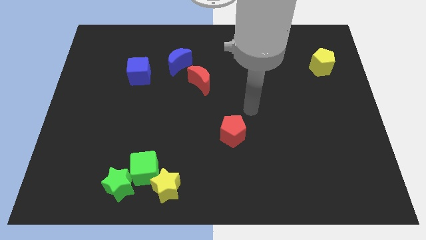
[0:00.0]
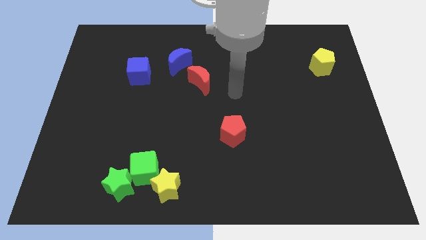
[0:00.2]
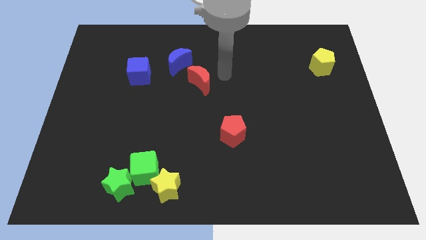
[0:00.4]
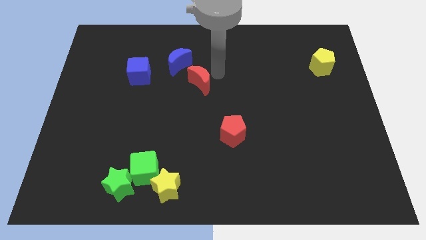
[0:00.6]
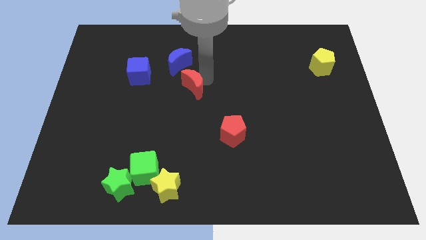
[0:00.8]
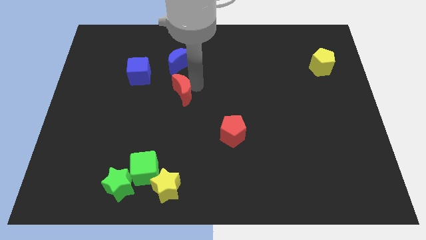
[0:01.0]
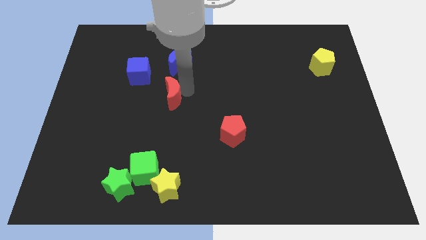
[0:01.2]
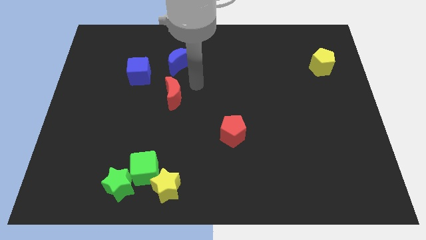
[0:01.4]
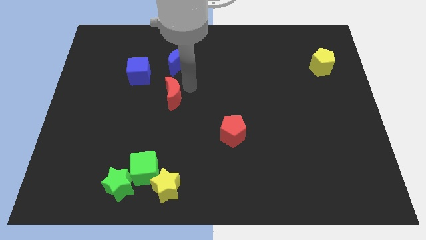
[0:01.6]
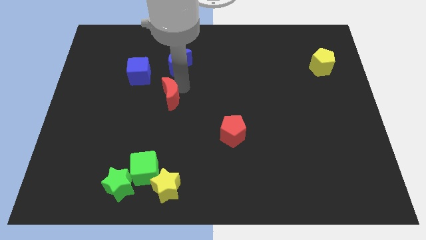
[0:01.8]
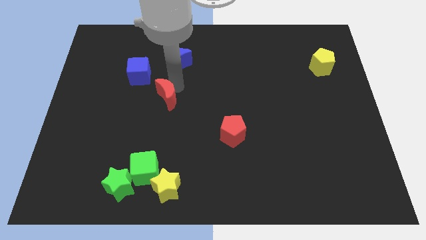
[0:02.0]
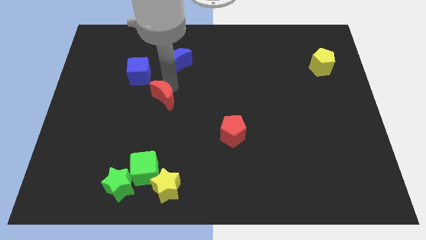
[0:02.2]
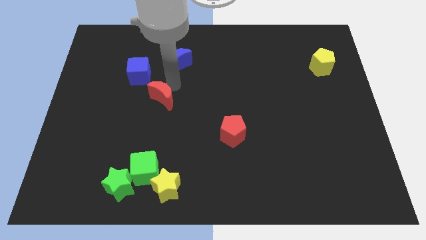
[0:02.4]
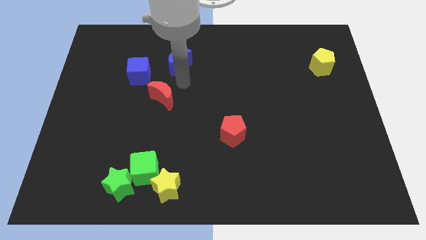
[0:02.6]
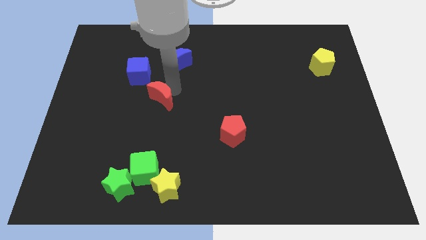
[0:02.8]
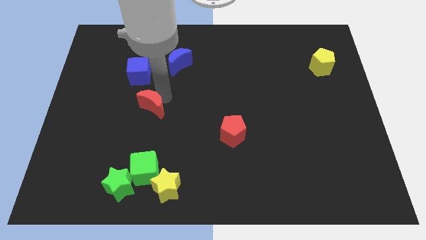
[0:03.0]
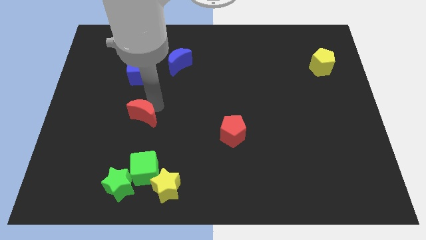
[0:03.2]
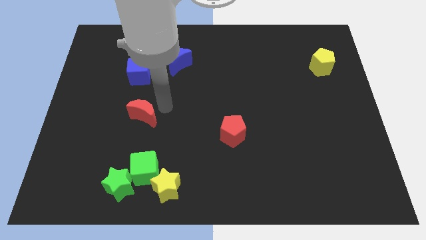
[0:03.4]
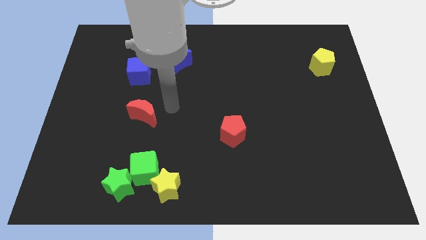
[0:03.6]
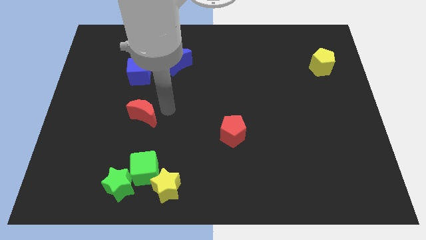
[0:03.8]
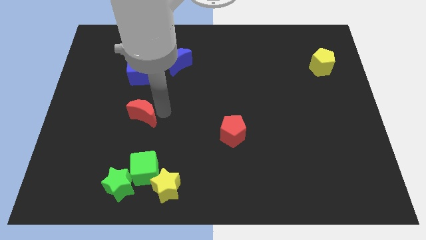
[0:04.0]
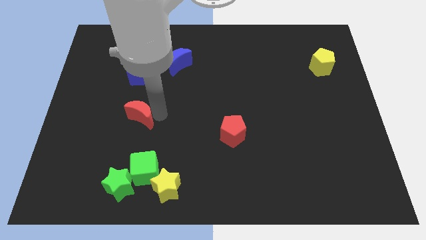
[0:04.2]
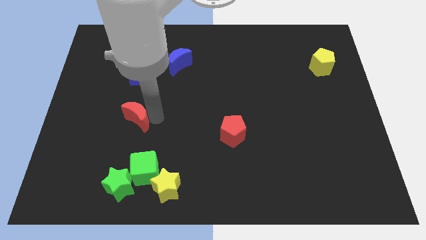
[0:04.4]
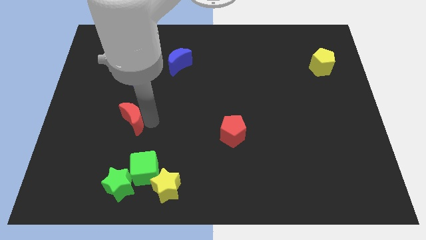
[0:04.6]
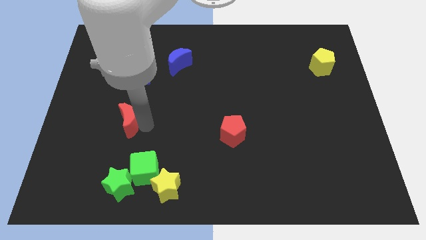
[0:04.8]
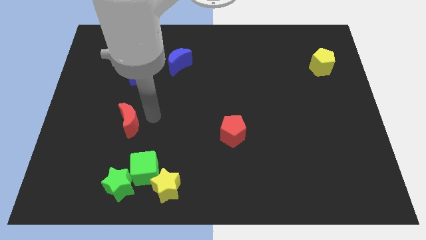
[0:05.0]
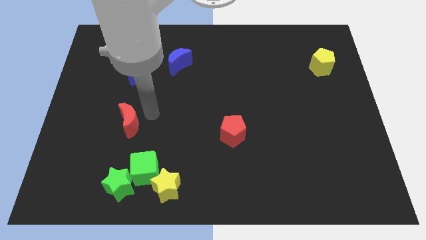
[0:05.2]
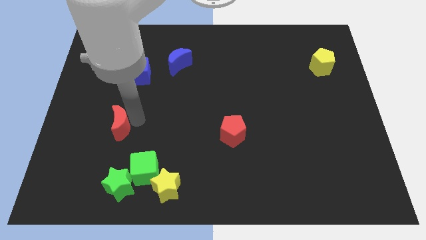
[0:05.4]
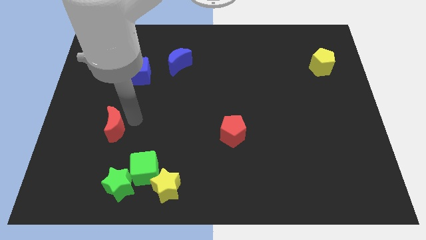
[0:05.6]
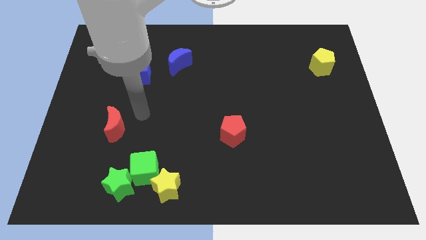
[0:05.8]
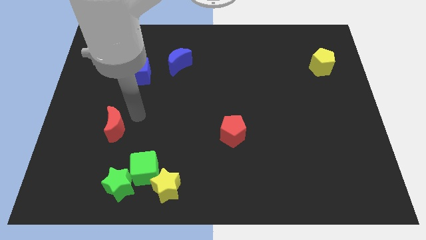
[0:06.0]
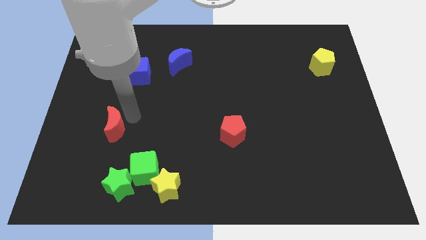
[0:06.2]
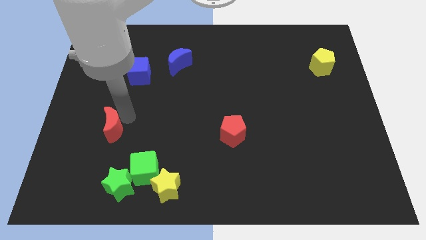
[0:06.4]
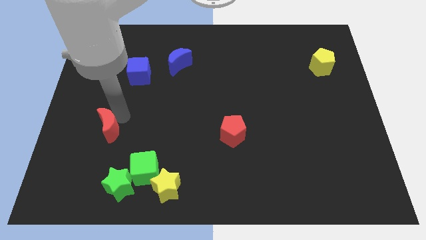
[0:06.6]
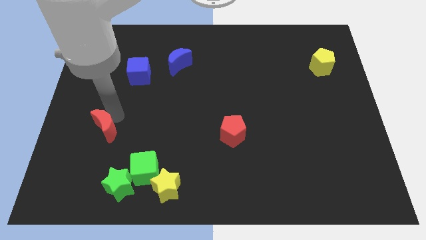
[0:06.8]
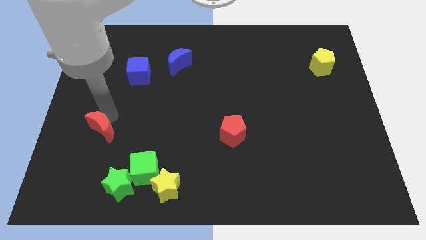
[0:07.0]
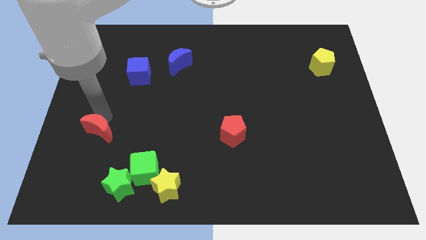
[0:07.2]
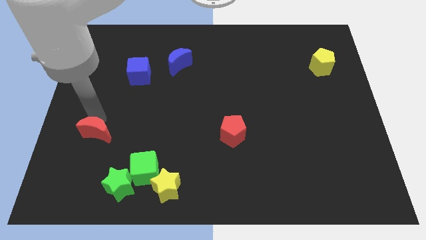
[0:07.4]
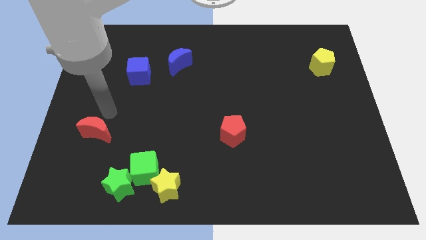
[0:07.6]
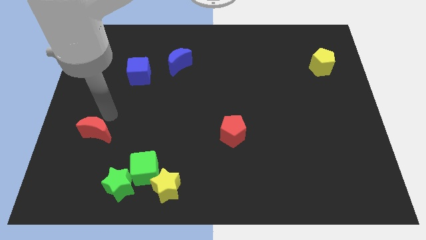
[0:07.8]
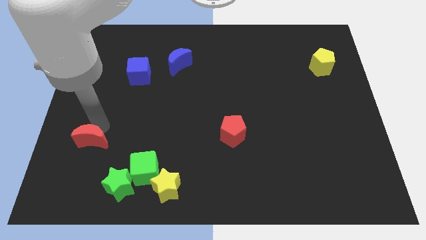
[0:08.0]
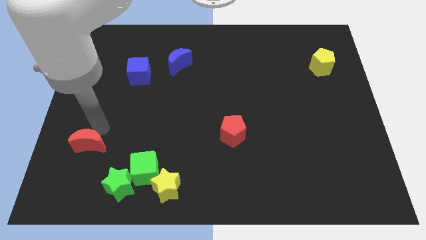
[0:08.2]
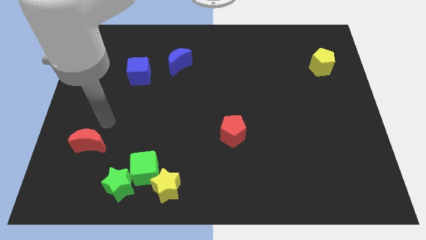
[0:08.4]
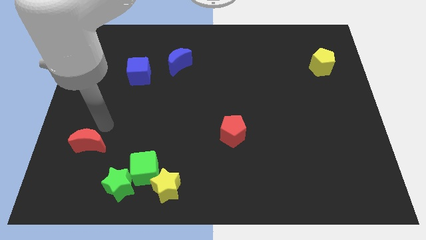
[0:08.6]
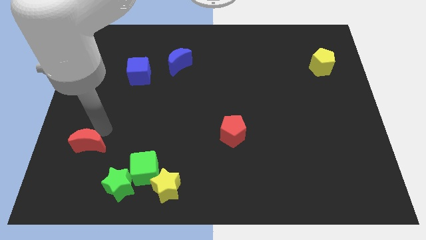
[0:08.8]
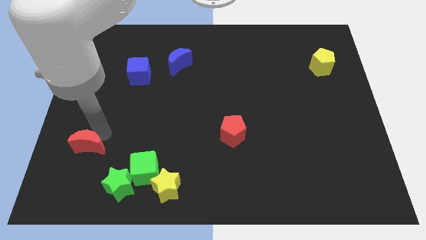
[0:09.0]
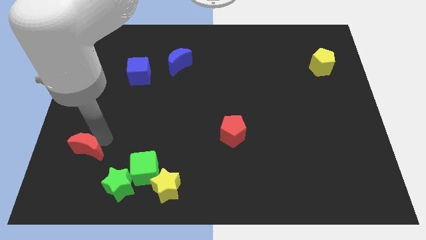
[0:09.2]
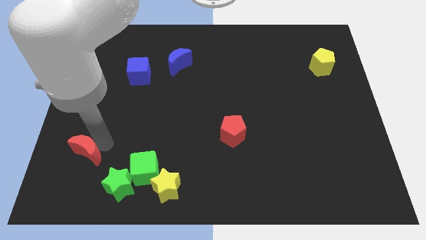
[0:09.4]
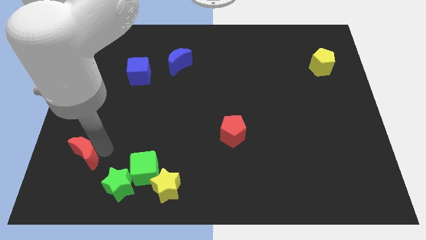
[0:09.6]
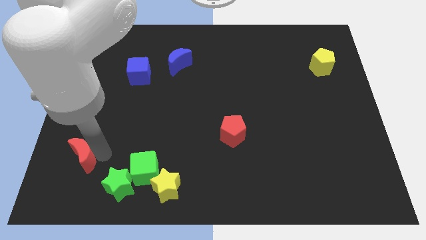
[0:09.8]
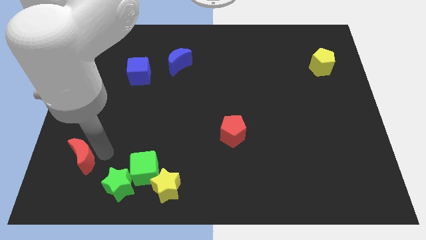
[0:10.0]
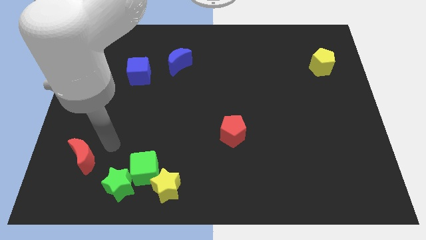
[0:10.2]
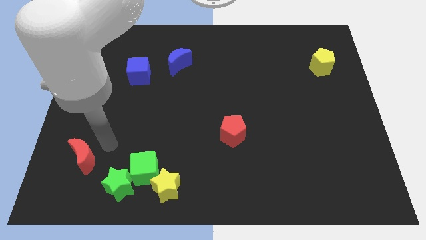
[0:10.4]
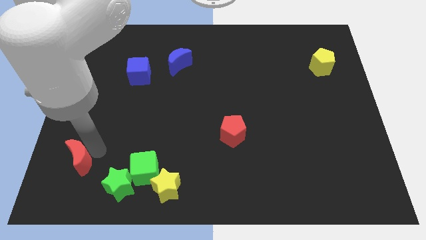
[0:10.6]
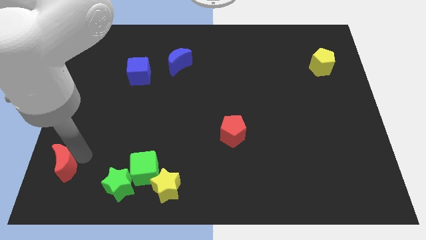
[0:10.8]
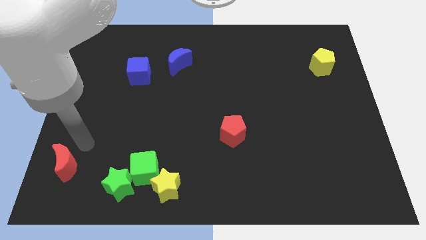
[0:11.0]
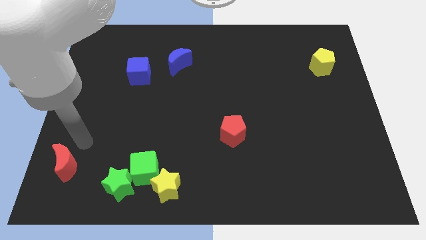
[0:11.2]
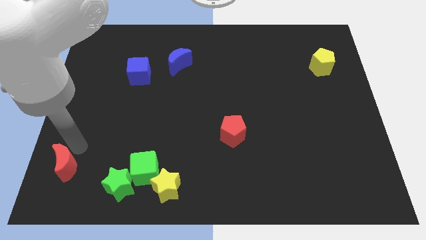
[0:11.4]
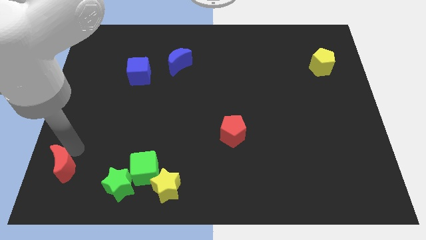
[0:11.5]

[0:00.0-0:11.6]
put the red moon to the bottom left corner

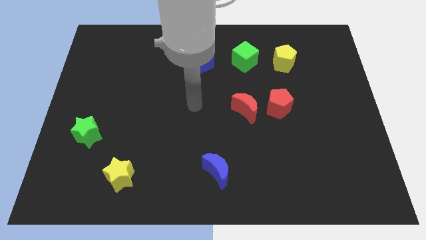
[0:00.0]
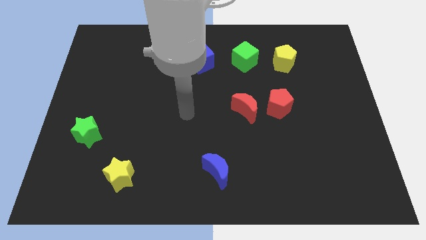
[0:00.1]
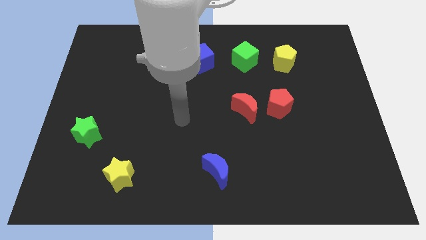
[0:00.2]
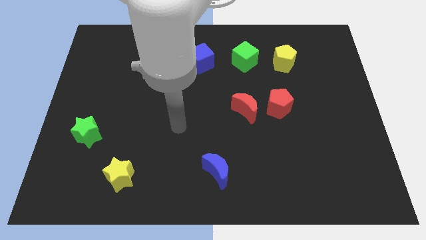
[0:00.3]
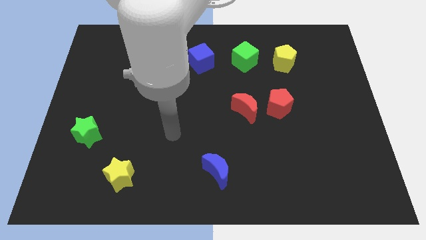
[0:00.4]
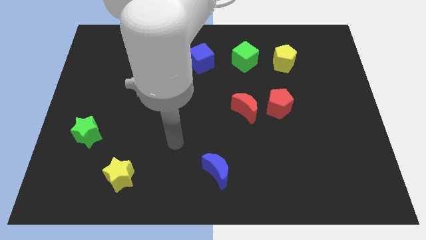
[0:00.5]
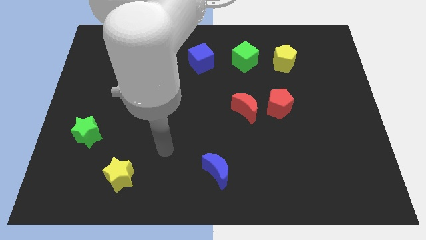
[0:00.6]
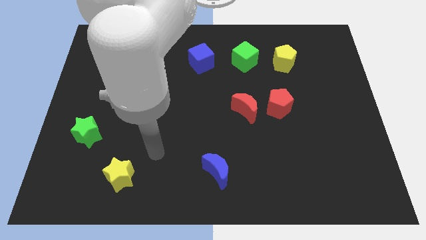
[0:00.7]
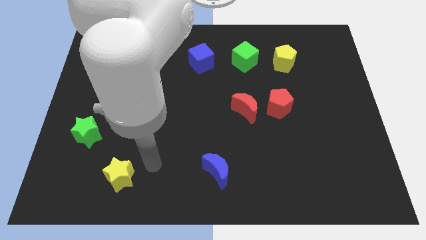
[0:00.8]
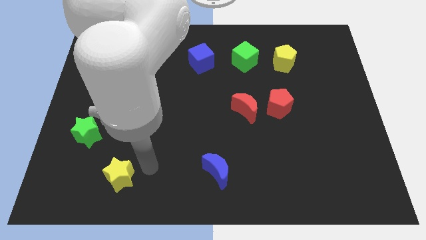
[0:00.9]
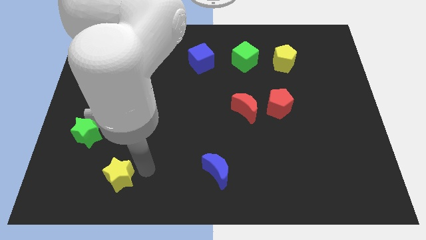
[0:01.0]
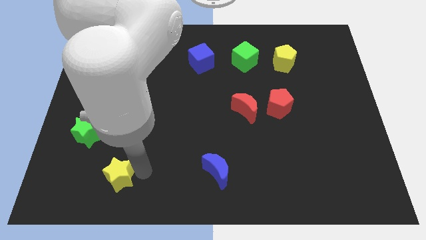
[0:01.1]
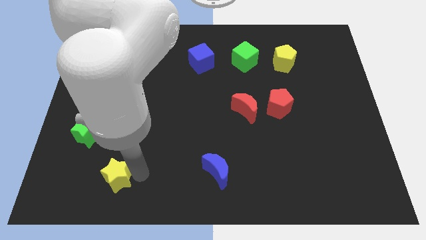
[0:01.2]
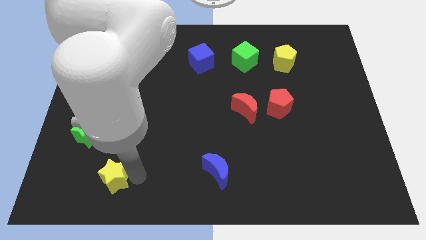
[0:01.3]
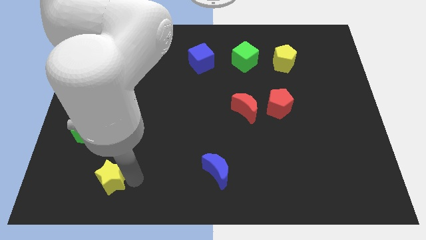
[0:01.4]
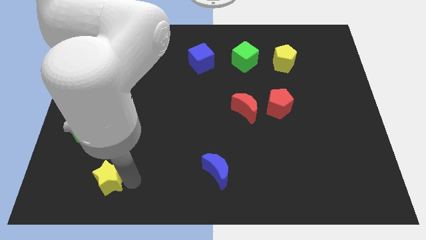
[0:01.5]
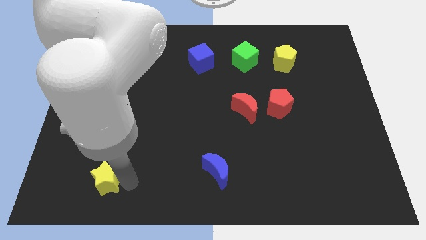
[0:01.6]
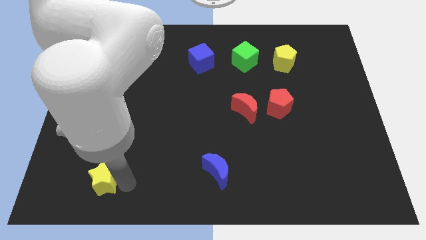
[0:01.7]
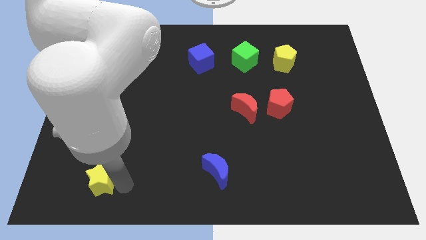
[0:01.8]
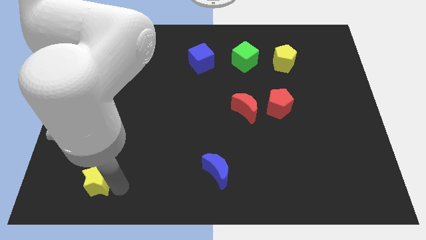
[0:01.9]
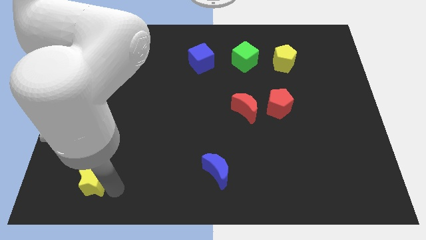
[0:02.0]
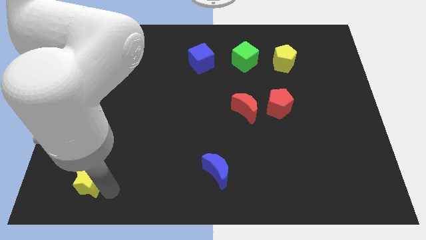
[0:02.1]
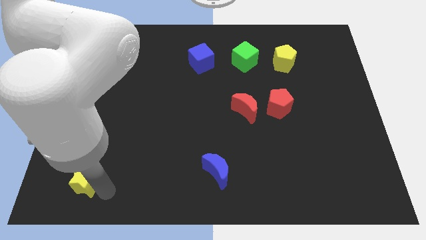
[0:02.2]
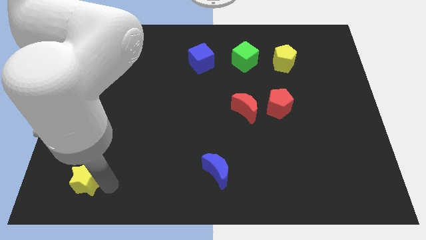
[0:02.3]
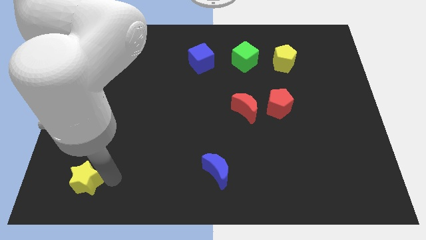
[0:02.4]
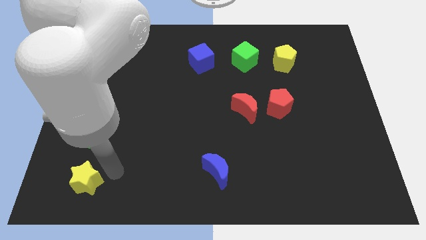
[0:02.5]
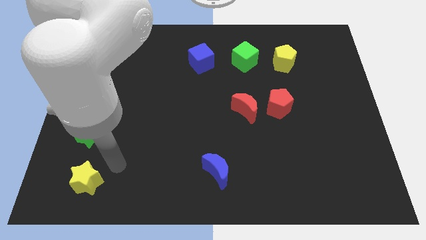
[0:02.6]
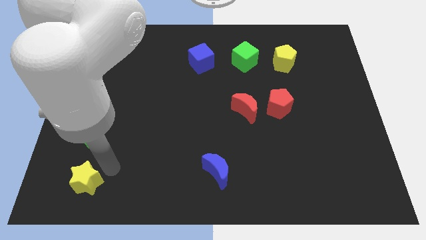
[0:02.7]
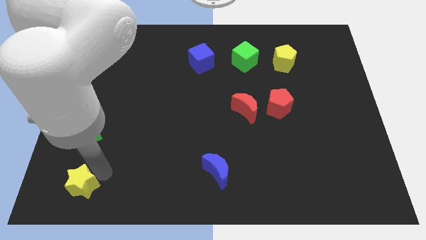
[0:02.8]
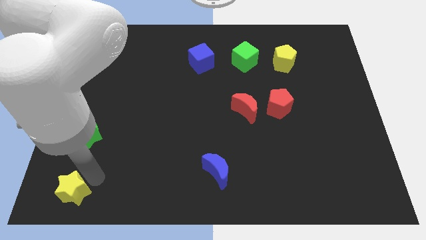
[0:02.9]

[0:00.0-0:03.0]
push the yellow star to the bottom left
